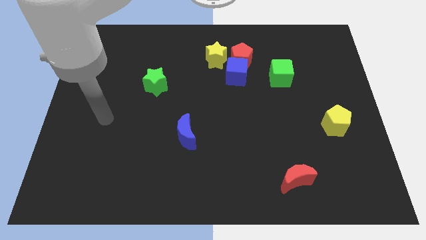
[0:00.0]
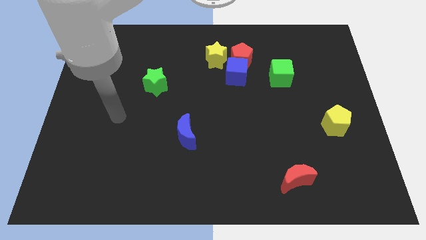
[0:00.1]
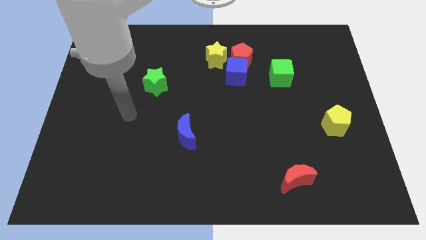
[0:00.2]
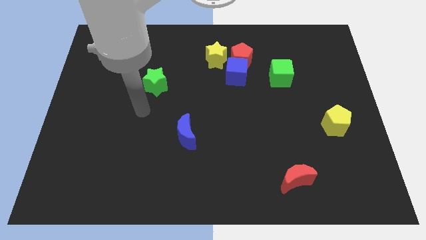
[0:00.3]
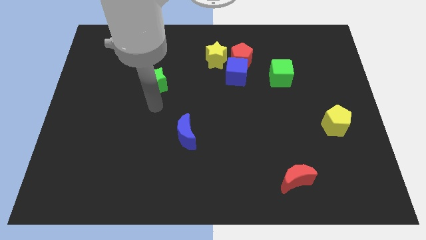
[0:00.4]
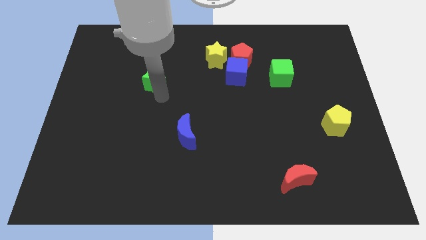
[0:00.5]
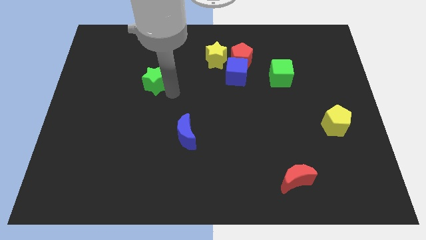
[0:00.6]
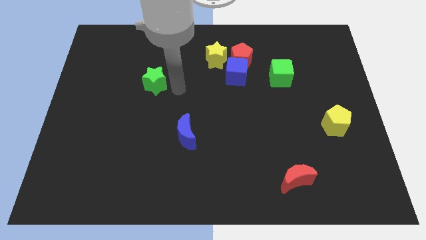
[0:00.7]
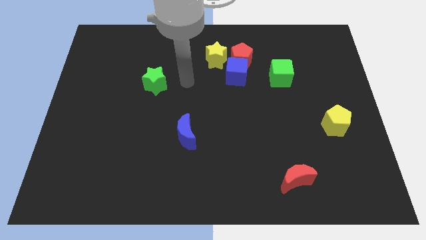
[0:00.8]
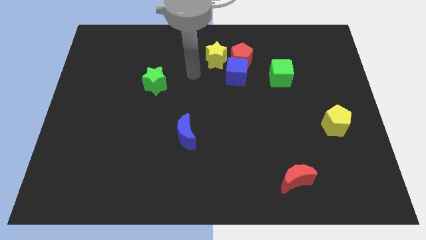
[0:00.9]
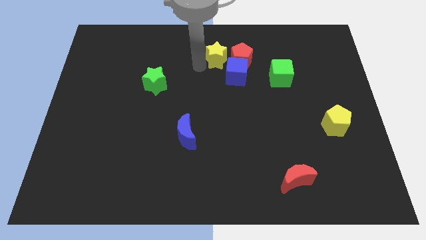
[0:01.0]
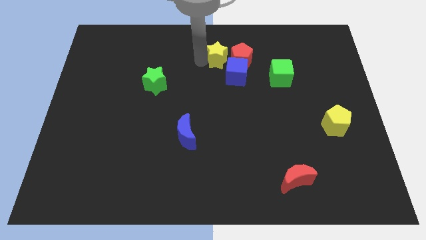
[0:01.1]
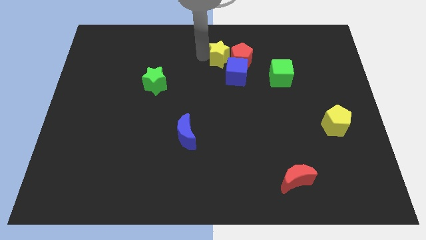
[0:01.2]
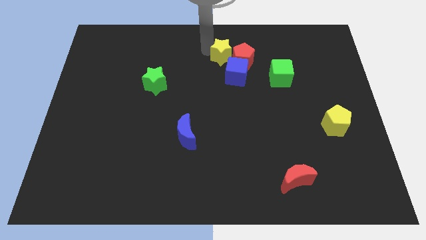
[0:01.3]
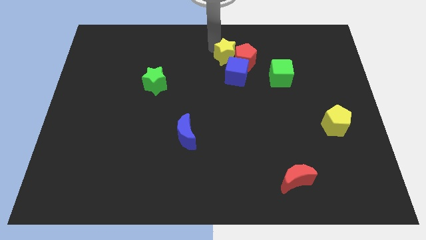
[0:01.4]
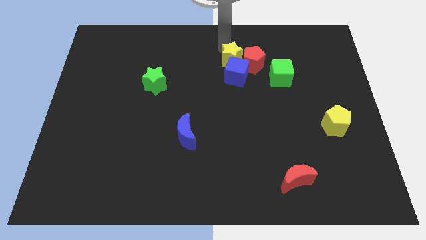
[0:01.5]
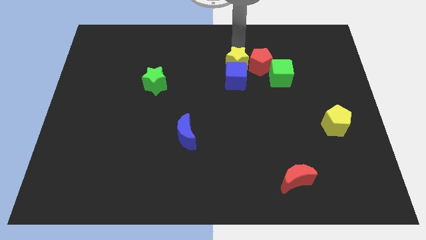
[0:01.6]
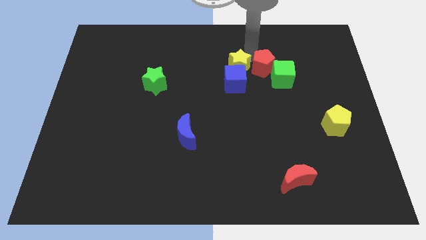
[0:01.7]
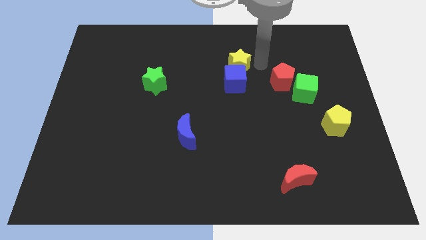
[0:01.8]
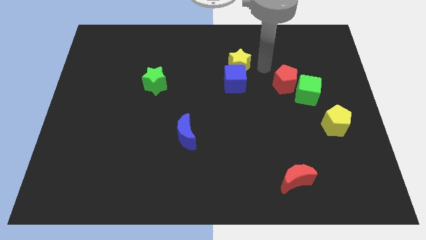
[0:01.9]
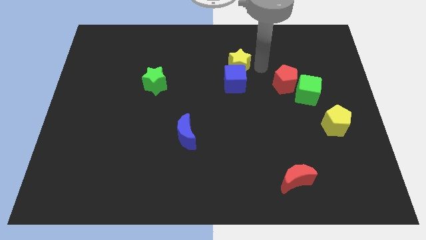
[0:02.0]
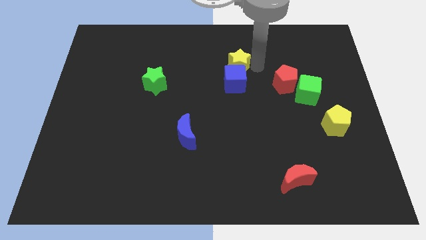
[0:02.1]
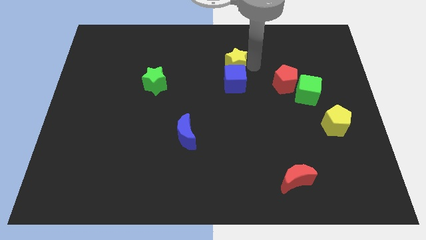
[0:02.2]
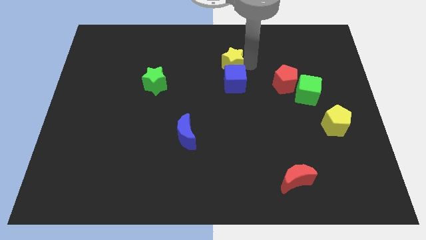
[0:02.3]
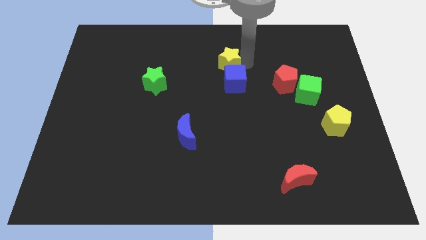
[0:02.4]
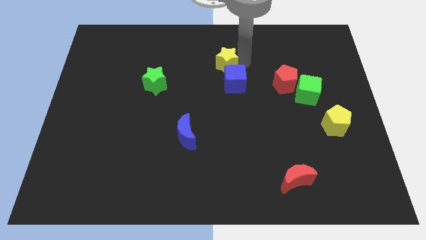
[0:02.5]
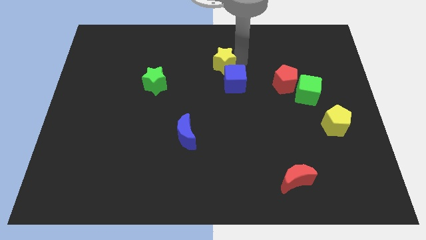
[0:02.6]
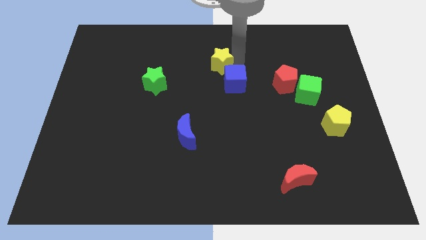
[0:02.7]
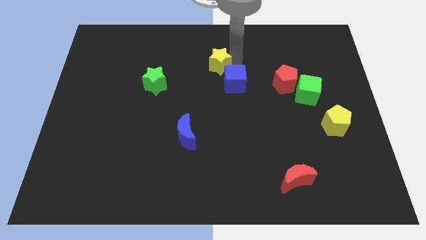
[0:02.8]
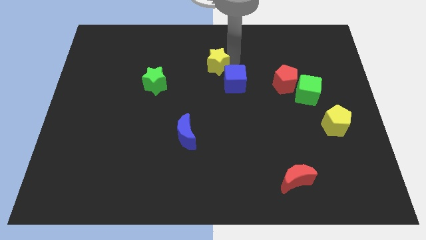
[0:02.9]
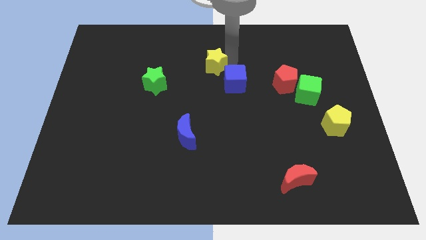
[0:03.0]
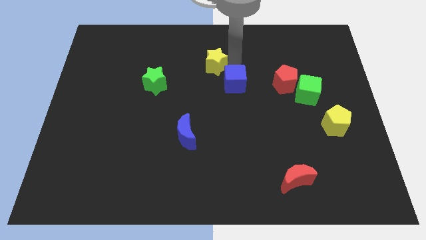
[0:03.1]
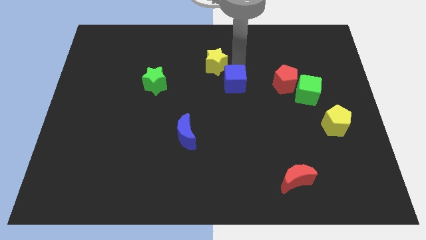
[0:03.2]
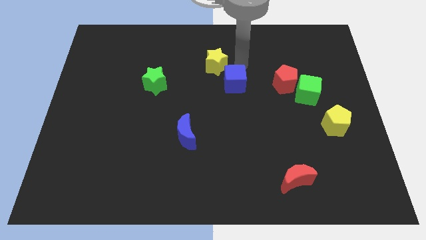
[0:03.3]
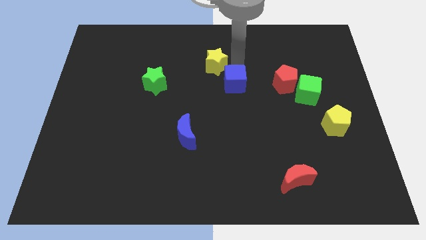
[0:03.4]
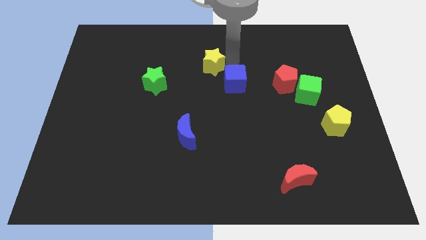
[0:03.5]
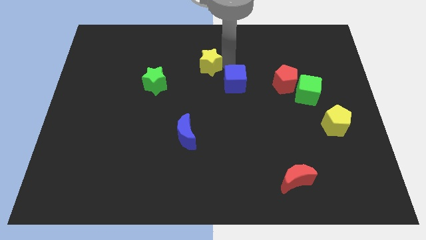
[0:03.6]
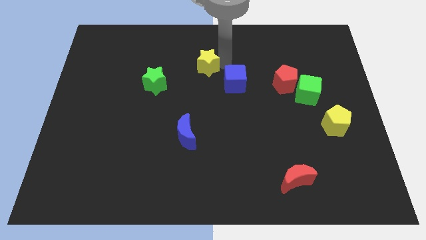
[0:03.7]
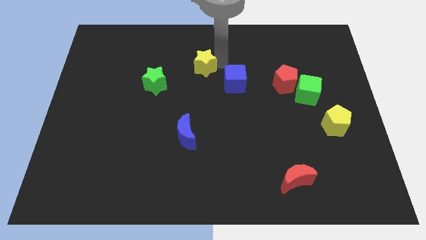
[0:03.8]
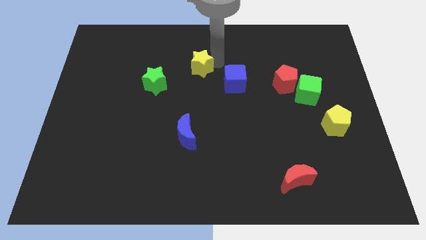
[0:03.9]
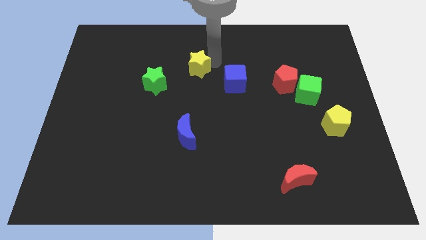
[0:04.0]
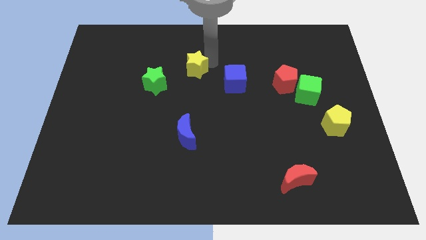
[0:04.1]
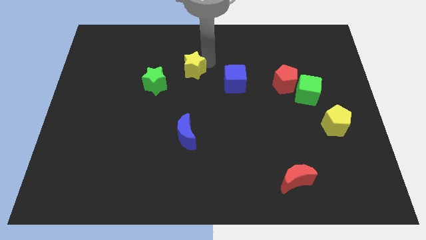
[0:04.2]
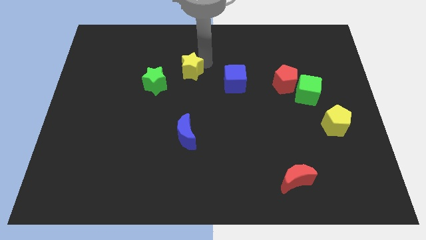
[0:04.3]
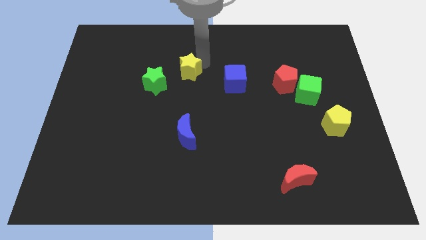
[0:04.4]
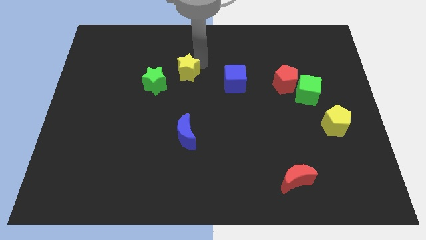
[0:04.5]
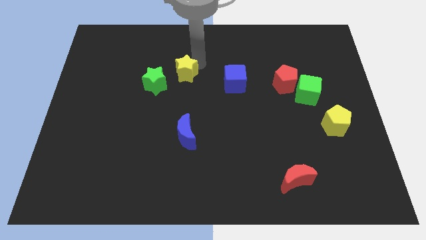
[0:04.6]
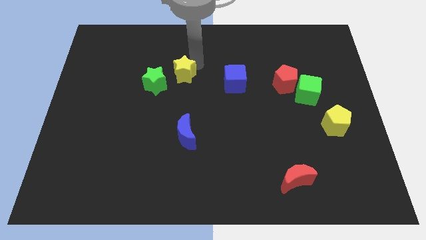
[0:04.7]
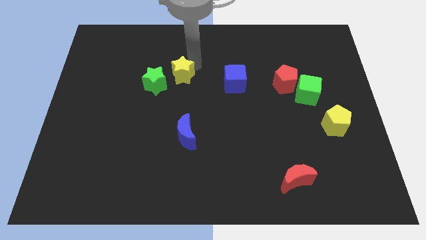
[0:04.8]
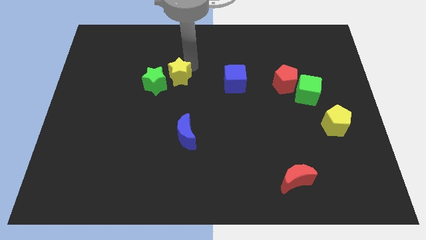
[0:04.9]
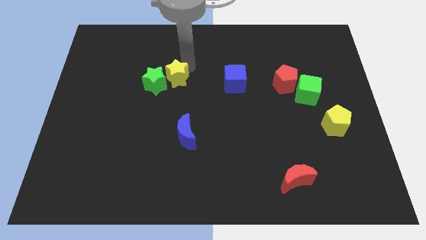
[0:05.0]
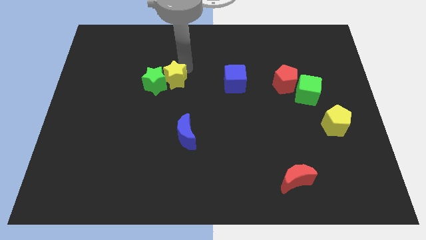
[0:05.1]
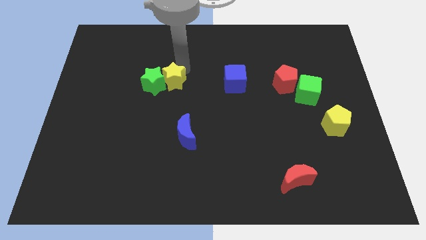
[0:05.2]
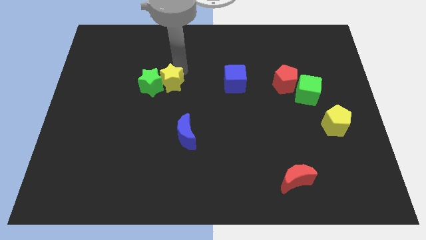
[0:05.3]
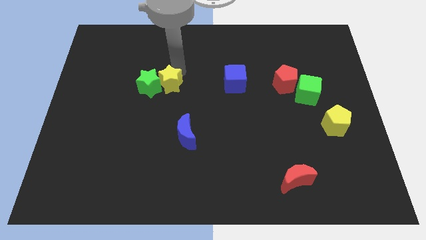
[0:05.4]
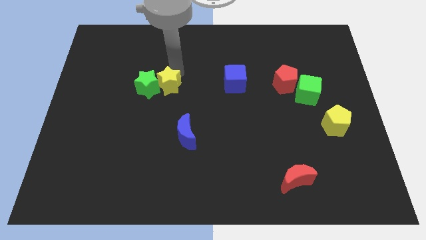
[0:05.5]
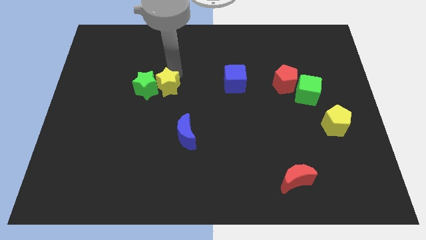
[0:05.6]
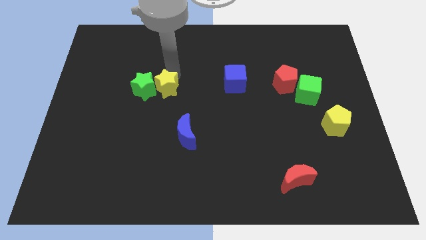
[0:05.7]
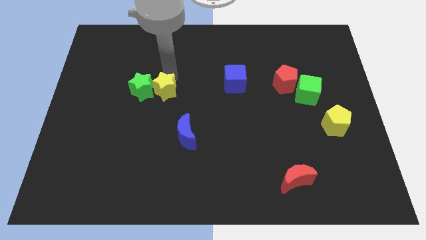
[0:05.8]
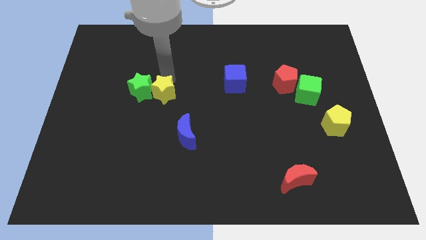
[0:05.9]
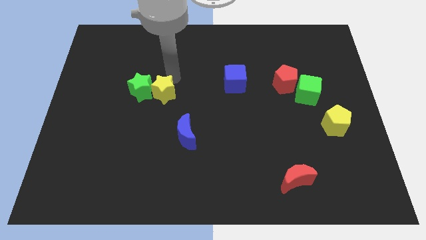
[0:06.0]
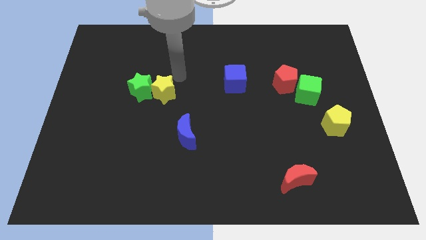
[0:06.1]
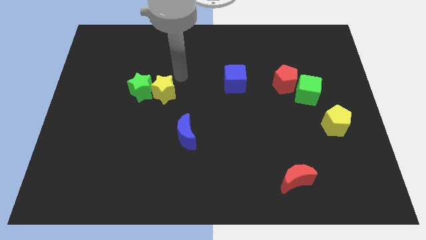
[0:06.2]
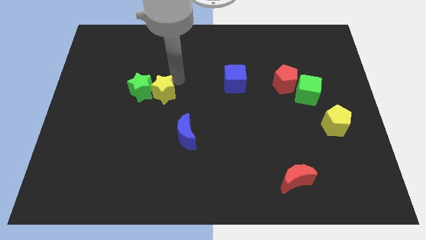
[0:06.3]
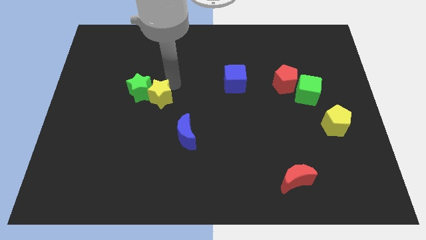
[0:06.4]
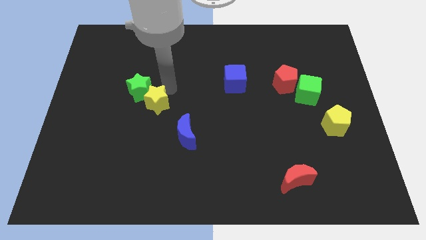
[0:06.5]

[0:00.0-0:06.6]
push the yellow star downwards and to the left diagonally

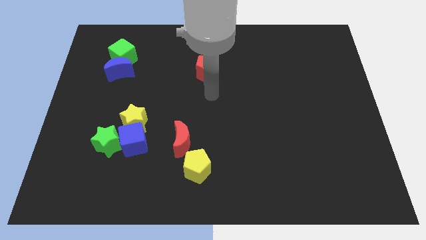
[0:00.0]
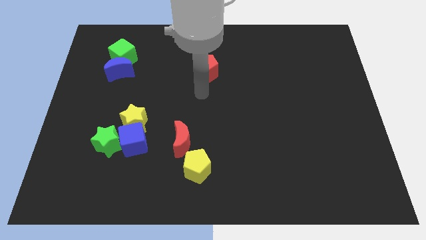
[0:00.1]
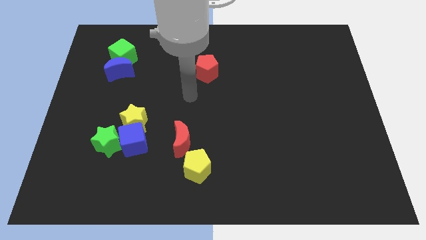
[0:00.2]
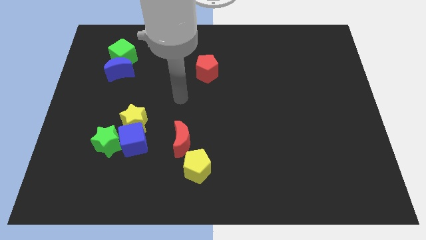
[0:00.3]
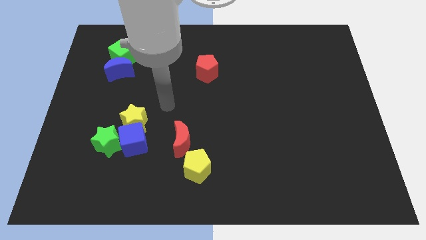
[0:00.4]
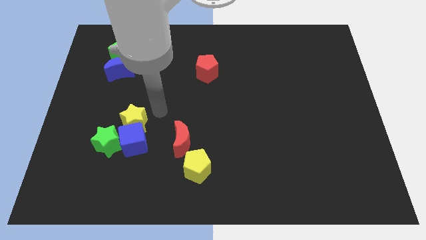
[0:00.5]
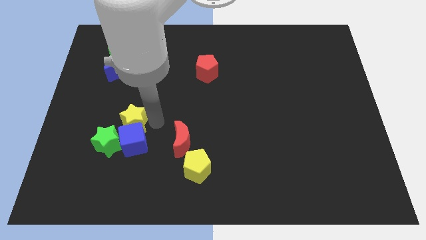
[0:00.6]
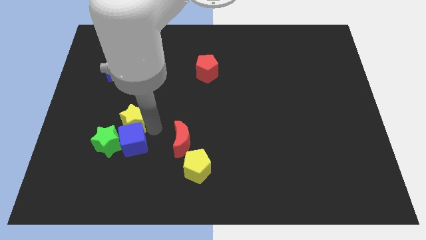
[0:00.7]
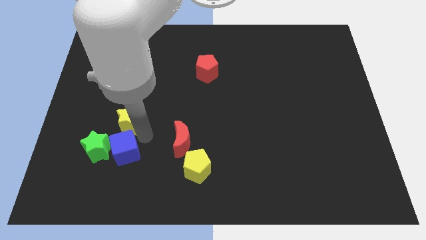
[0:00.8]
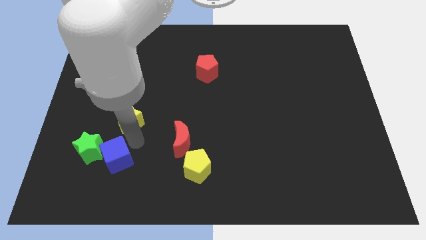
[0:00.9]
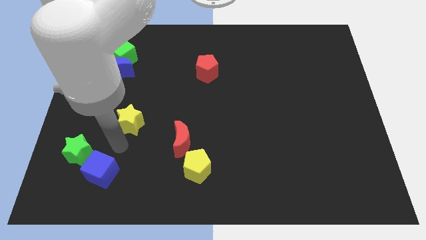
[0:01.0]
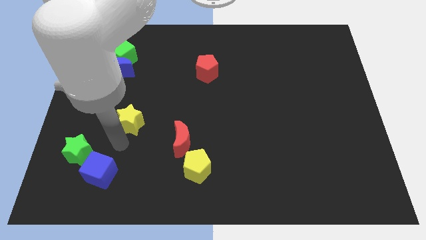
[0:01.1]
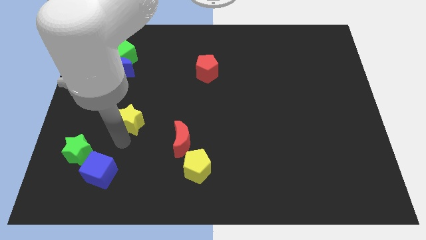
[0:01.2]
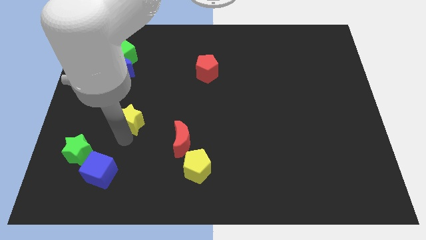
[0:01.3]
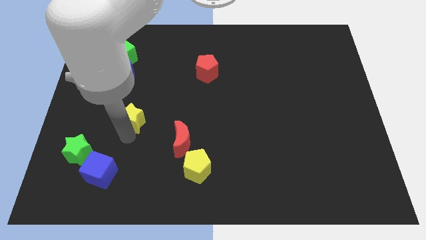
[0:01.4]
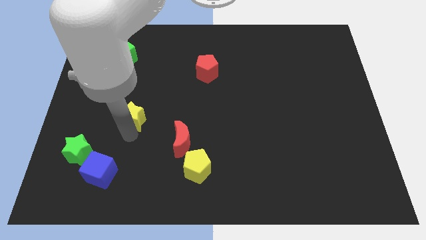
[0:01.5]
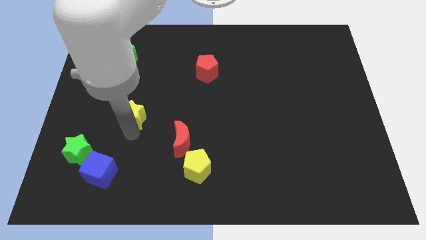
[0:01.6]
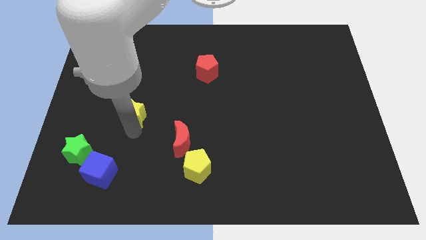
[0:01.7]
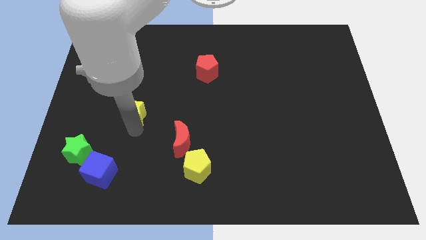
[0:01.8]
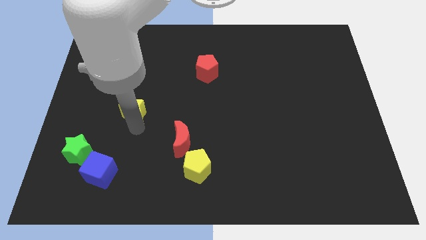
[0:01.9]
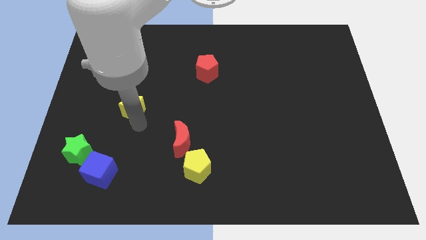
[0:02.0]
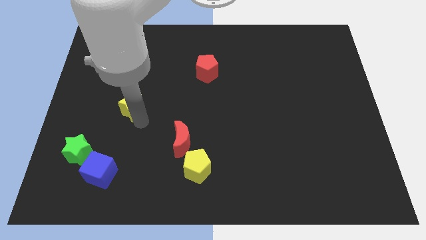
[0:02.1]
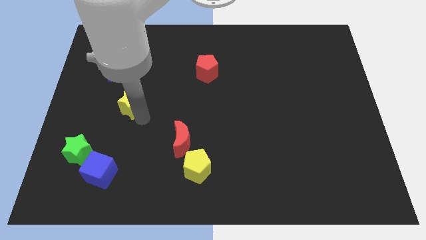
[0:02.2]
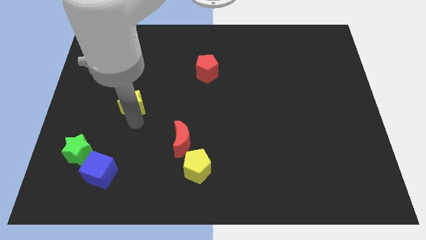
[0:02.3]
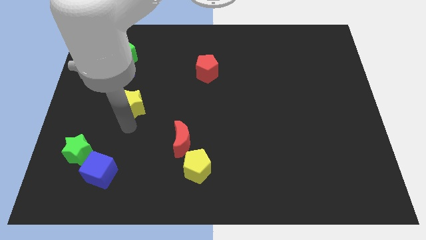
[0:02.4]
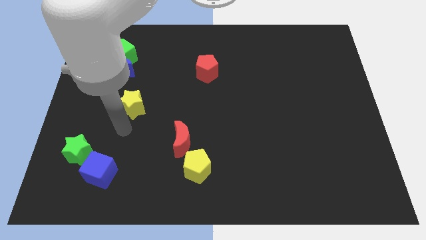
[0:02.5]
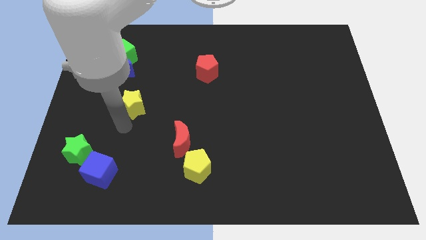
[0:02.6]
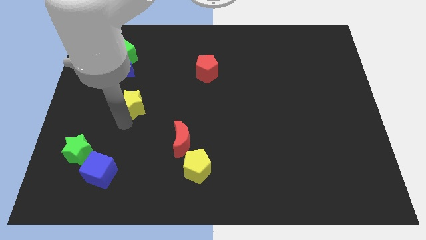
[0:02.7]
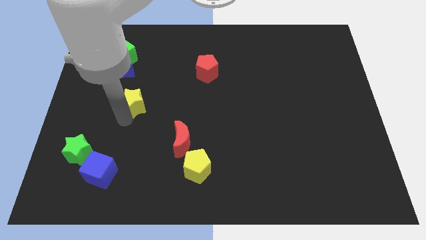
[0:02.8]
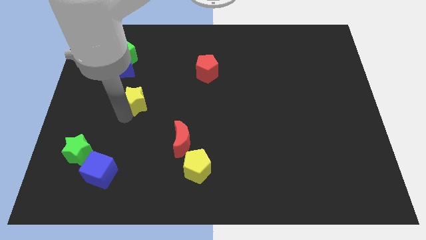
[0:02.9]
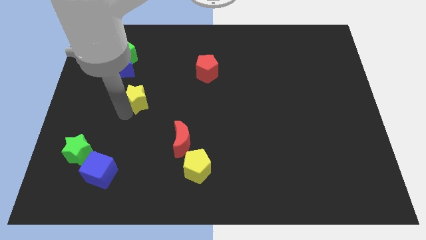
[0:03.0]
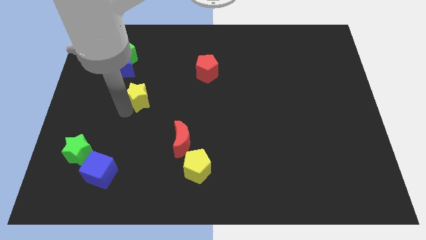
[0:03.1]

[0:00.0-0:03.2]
move the yellow star upwards a little bit
